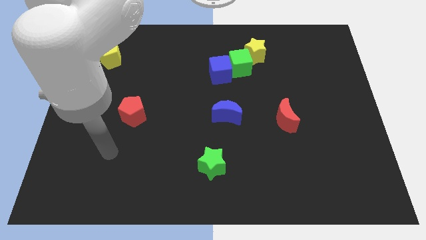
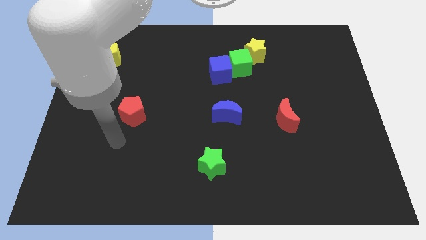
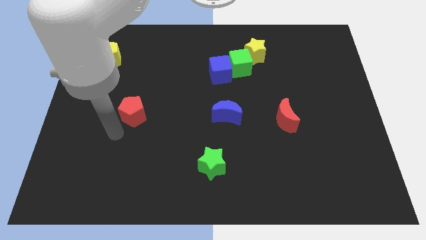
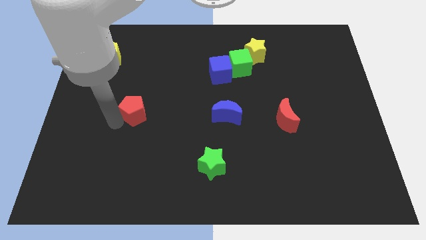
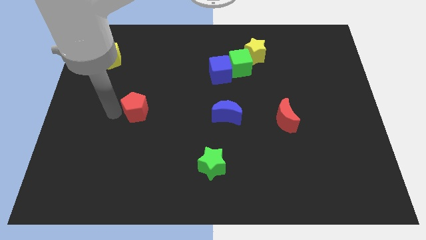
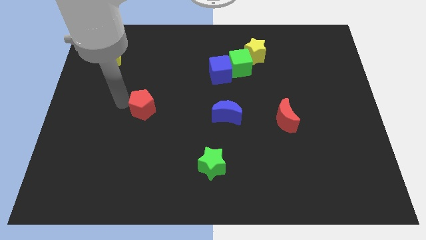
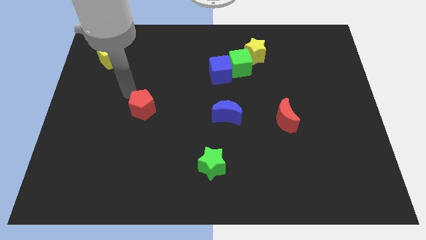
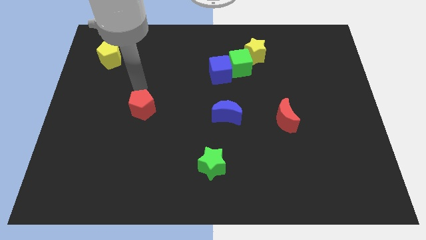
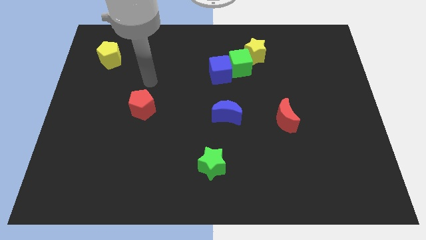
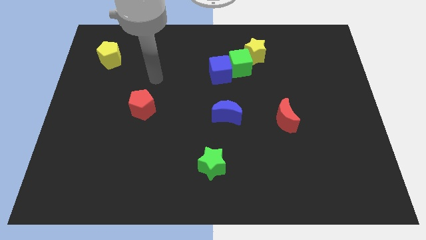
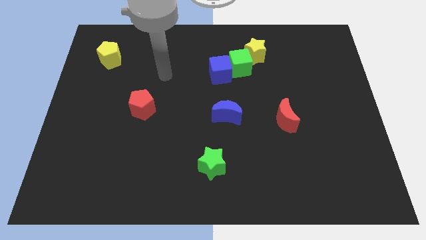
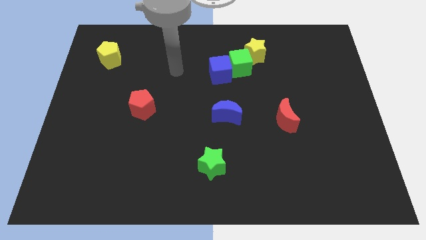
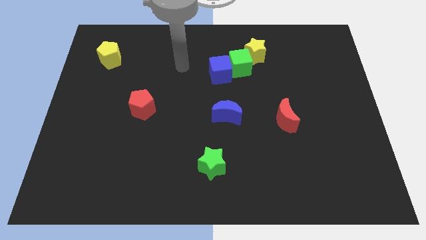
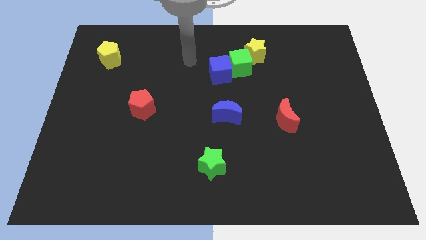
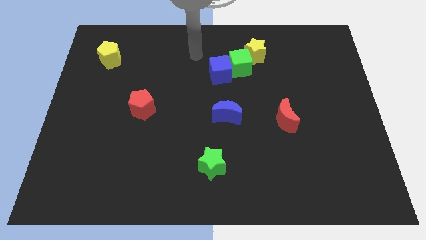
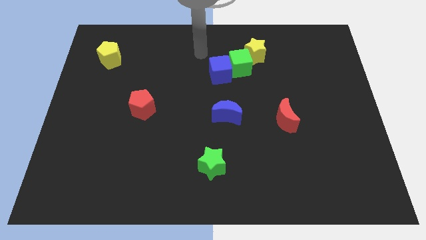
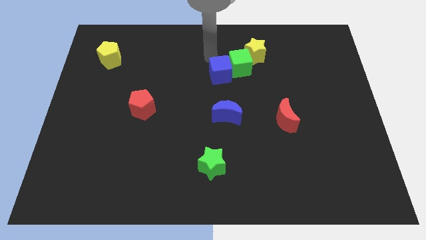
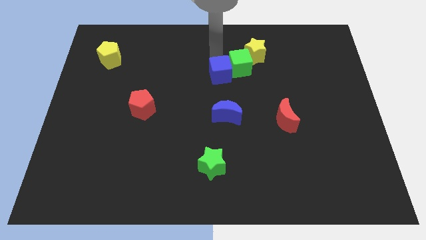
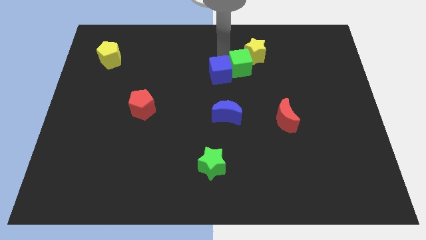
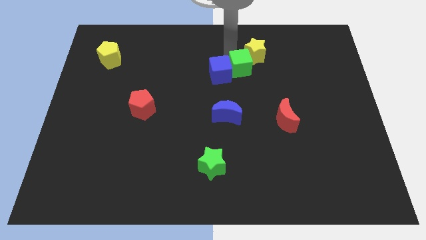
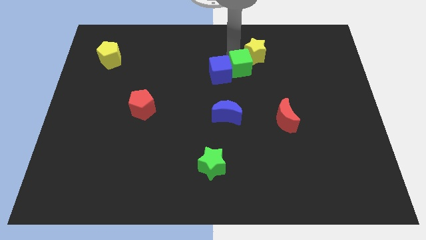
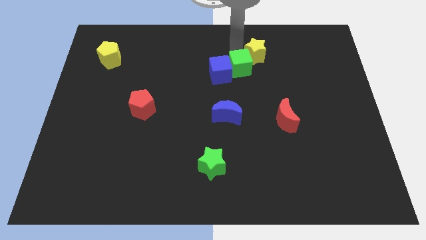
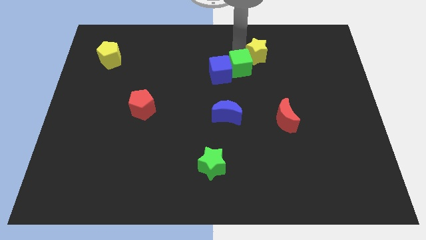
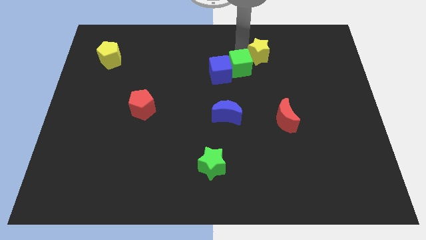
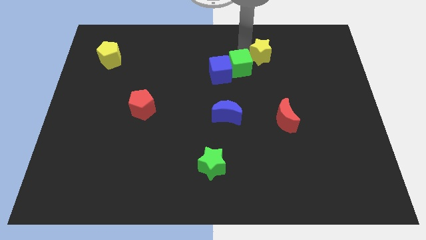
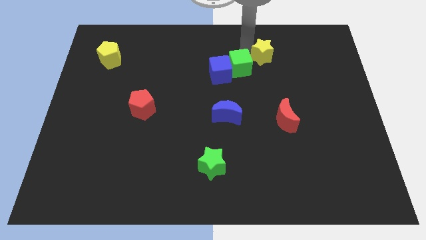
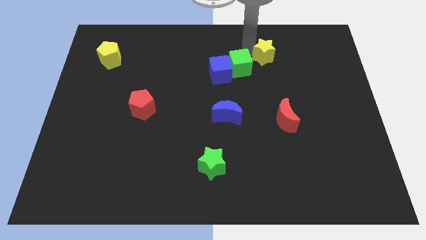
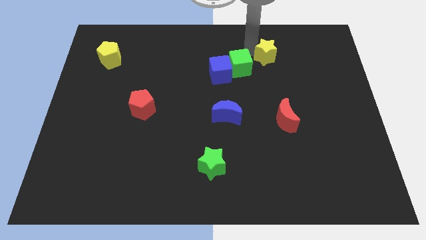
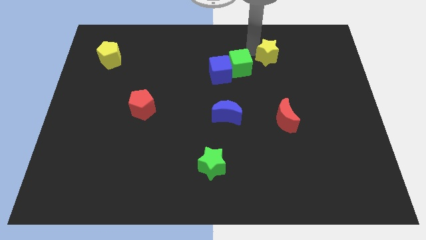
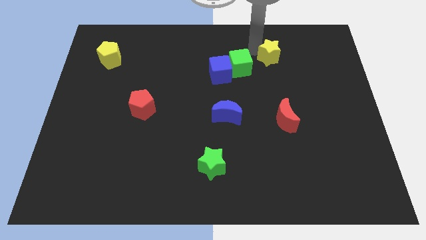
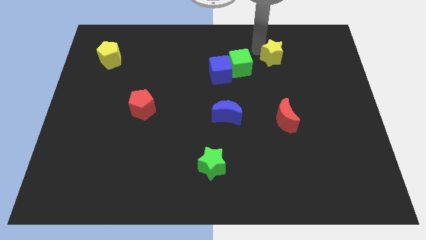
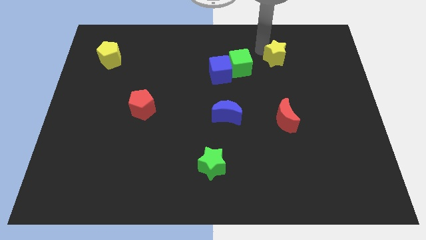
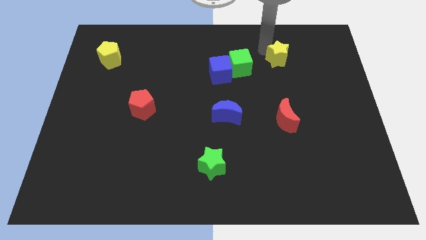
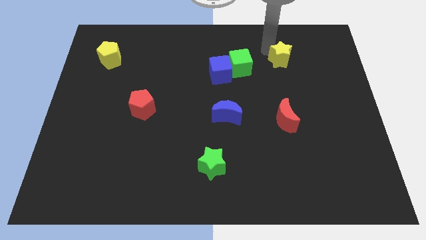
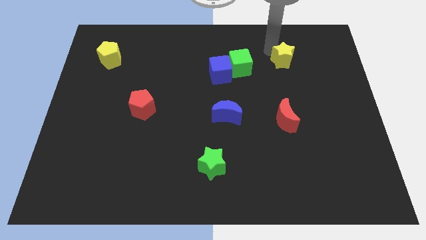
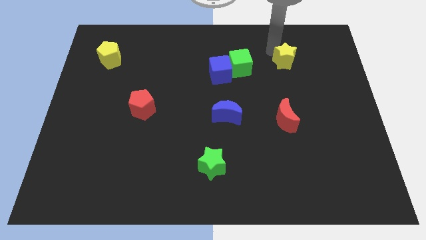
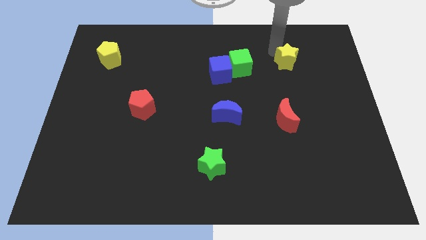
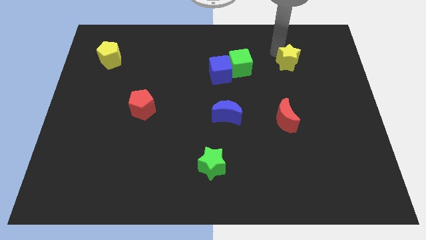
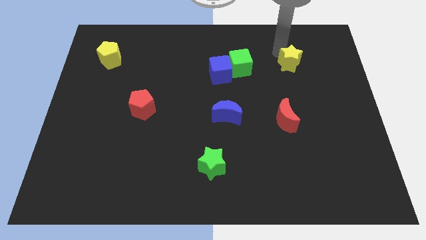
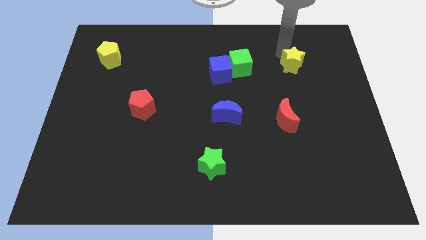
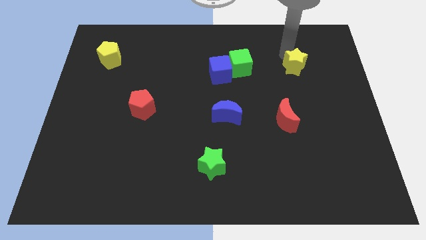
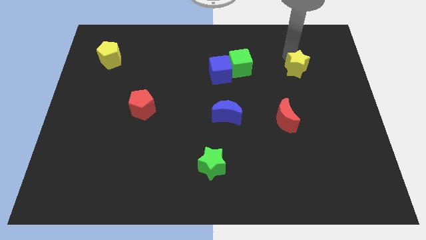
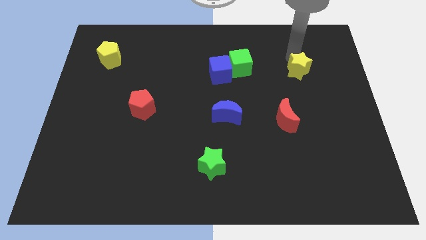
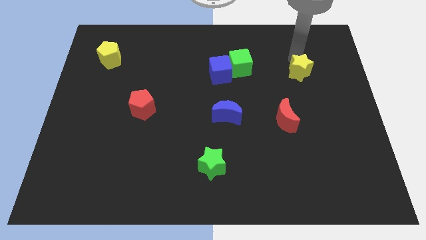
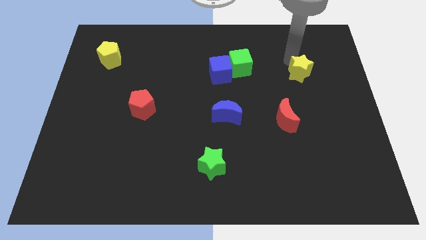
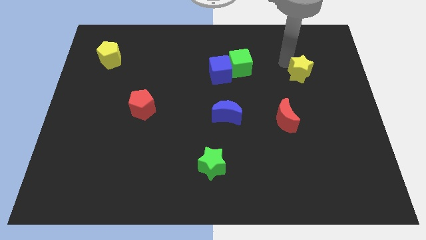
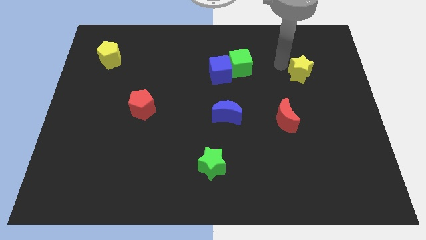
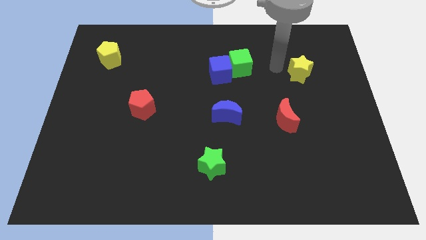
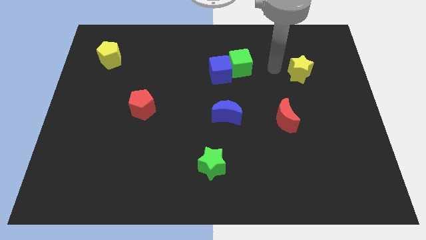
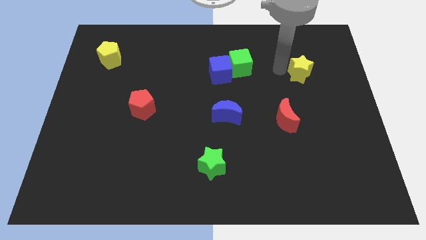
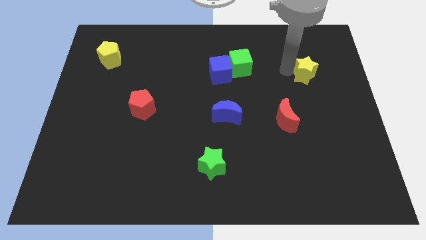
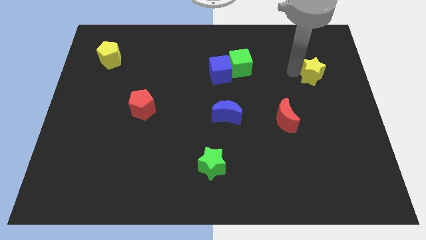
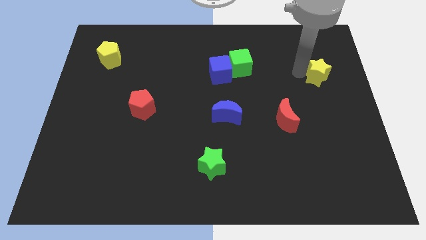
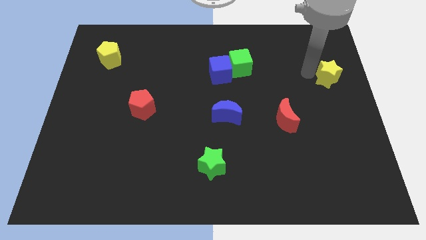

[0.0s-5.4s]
move the yellow star to the right side

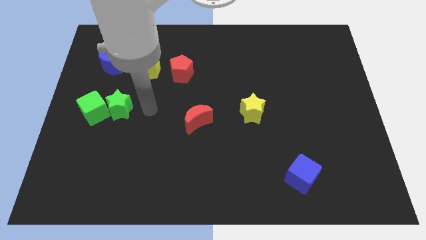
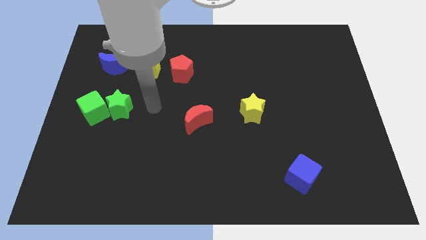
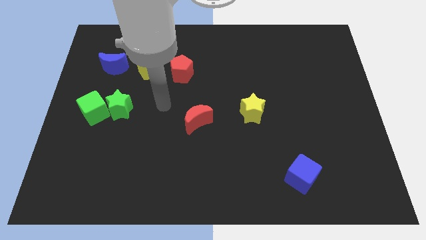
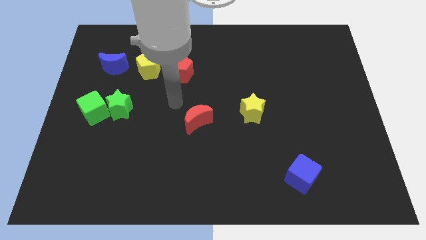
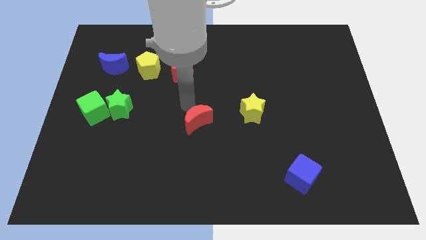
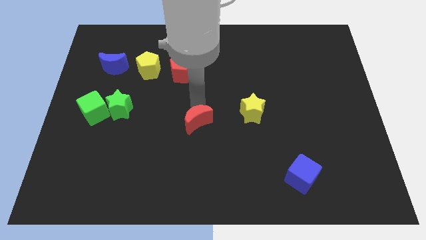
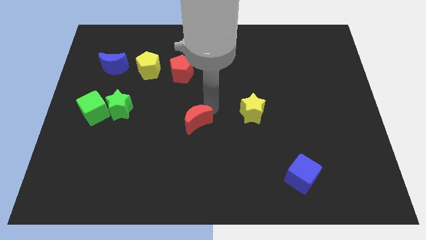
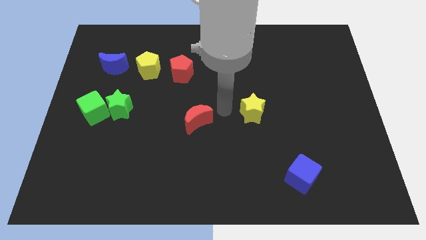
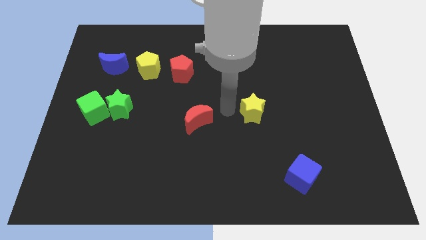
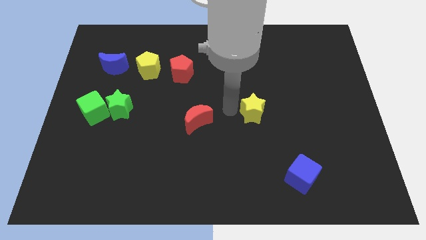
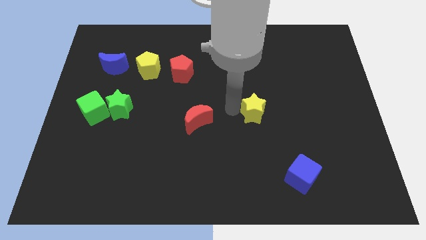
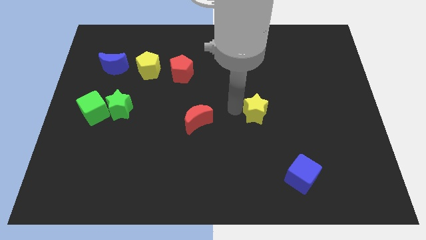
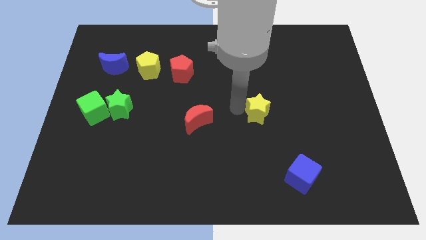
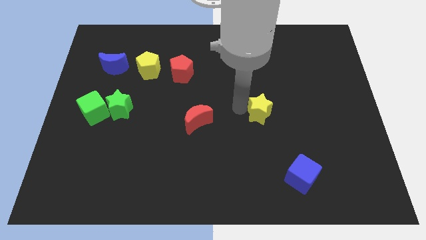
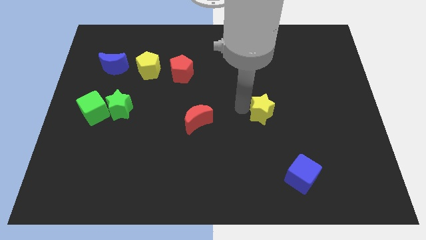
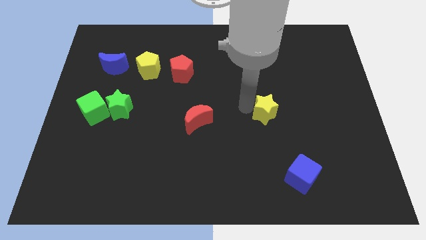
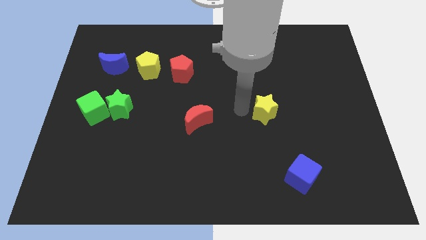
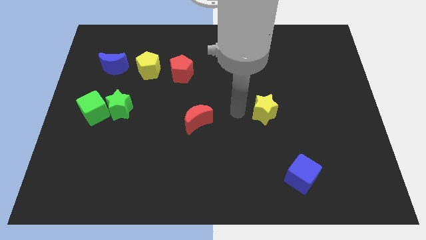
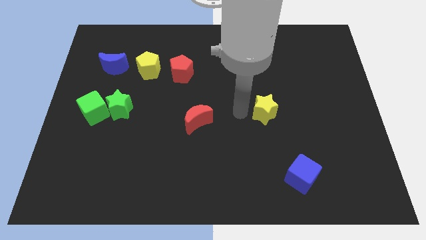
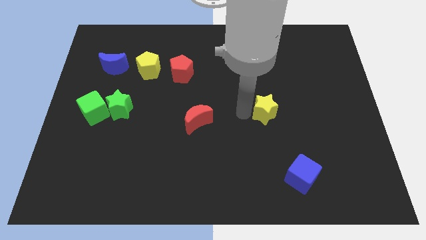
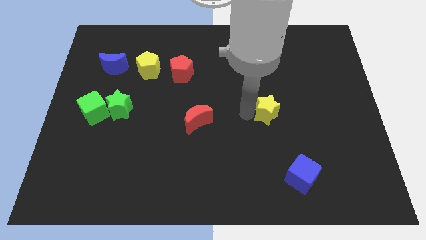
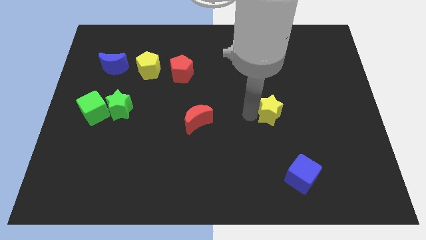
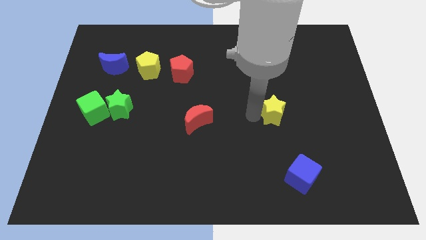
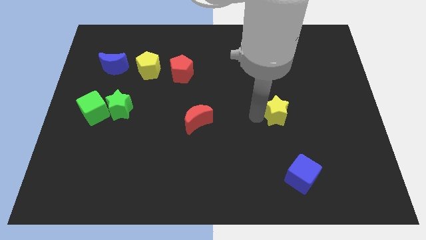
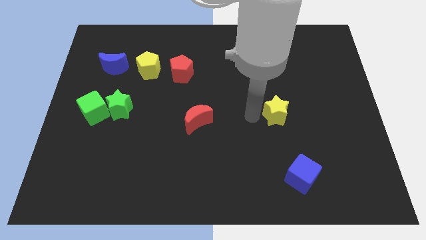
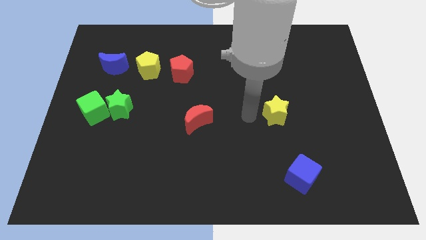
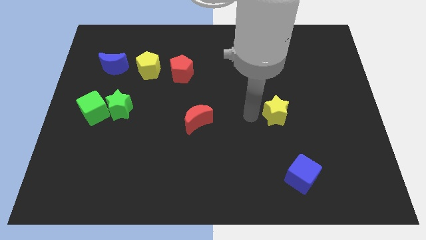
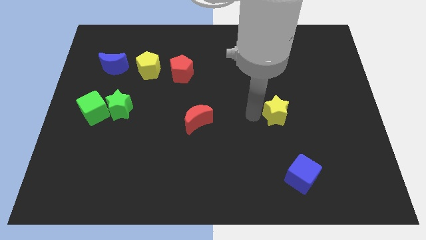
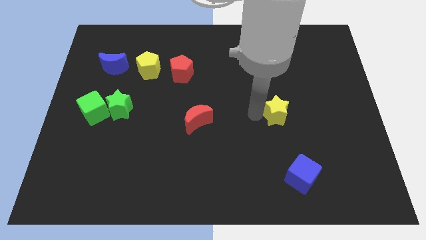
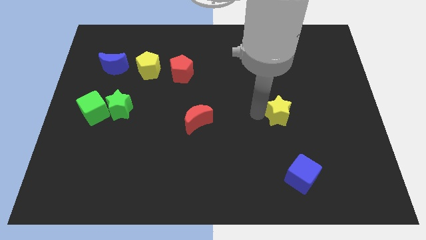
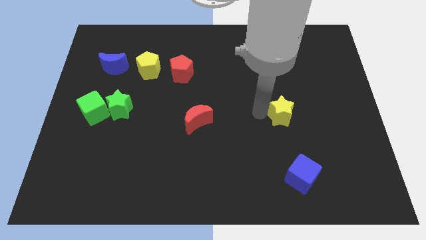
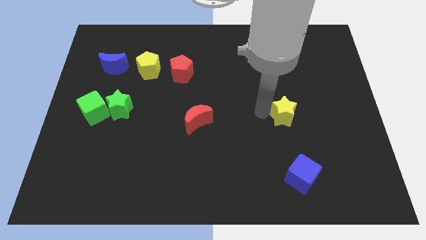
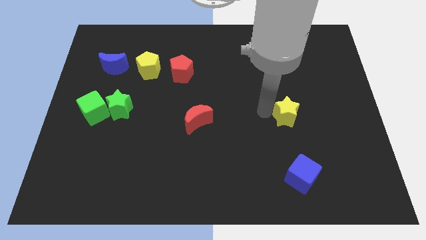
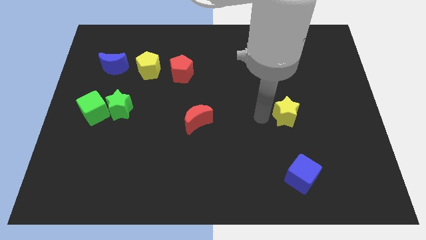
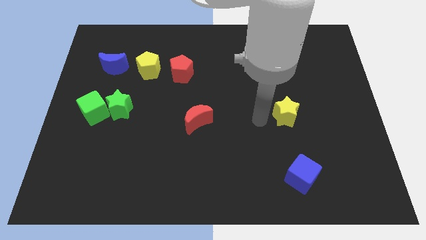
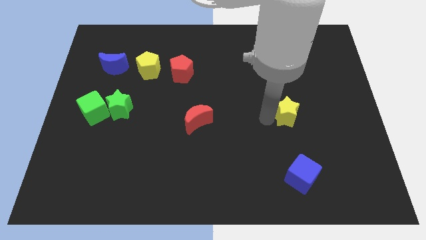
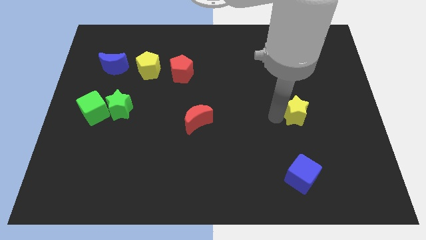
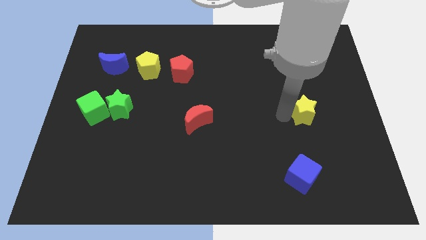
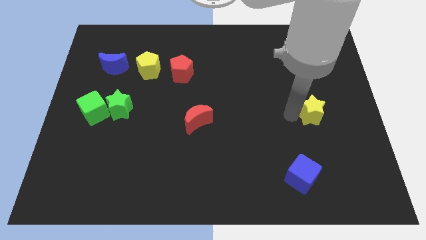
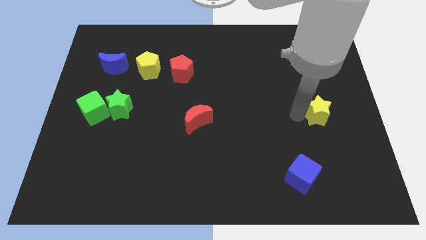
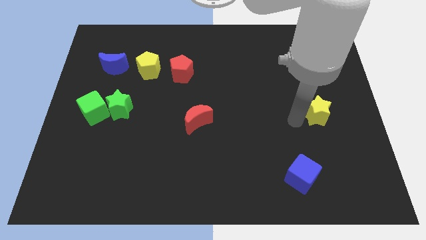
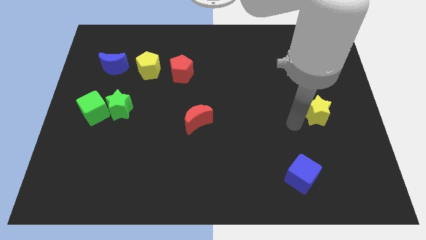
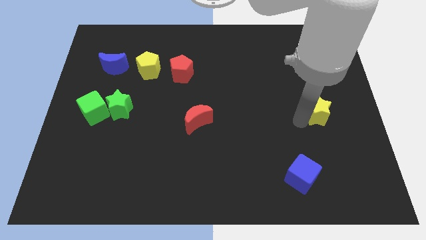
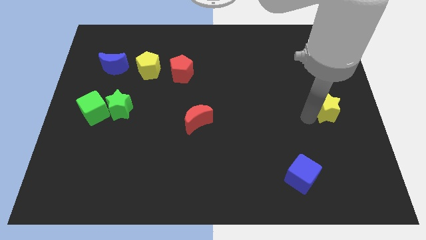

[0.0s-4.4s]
put the yellow star to the right side
